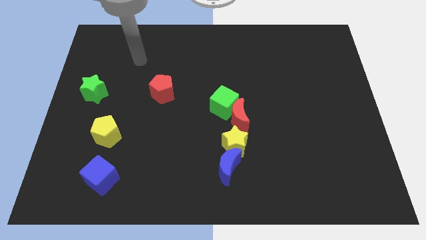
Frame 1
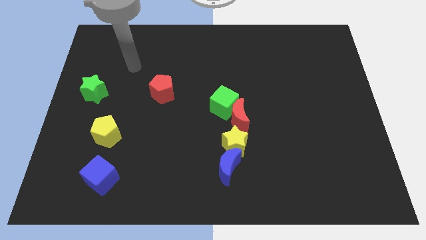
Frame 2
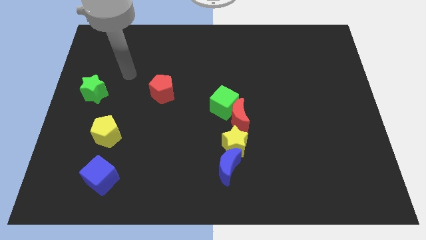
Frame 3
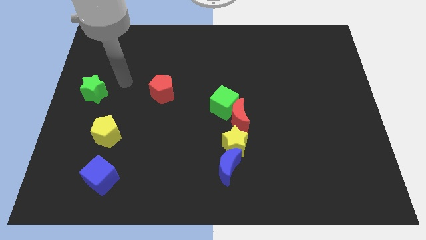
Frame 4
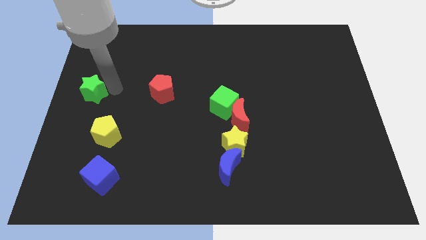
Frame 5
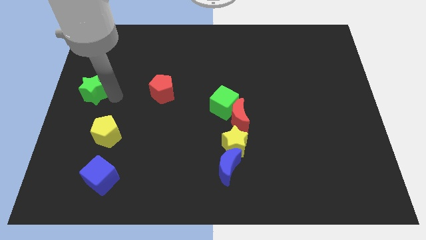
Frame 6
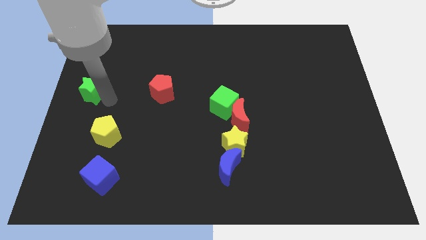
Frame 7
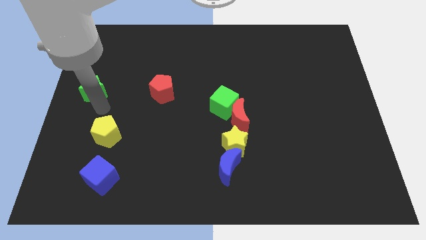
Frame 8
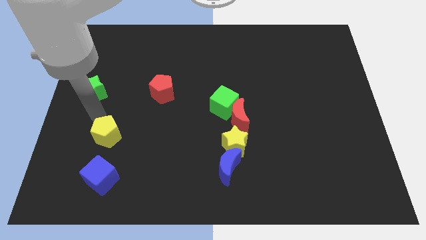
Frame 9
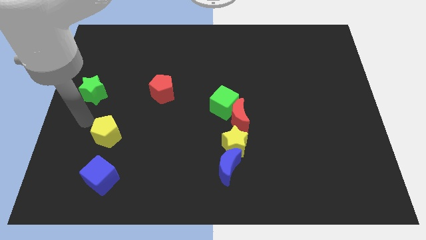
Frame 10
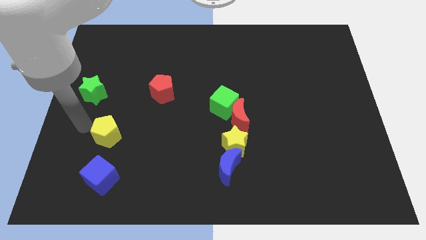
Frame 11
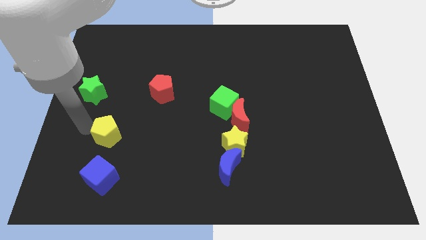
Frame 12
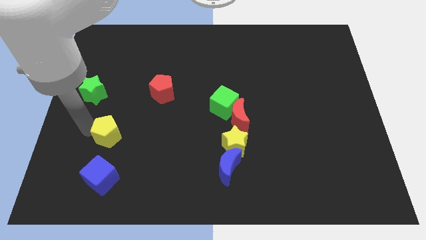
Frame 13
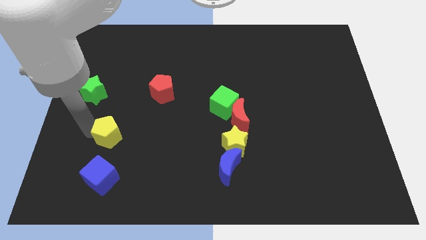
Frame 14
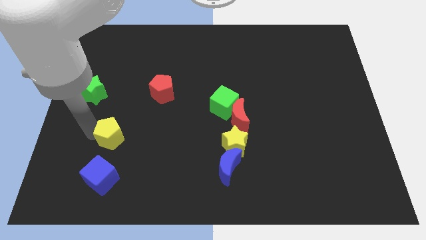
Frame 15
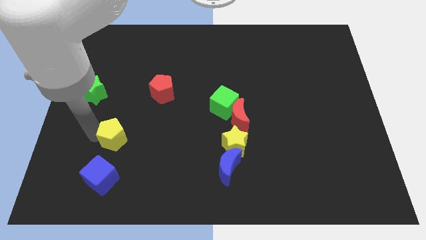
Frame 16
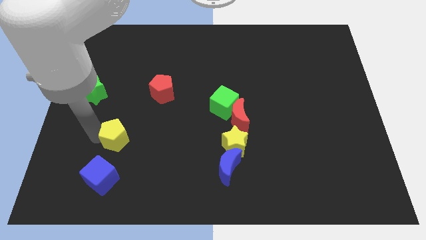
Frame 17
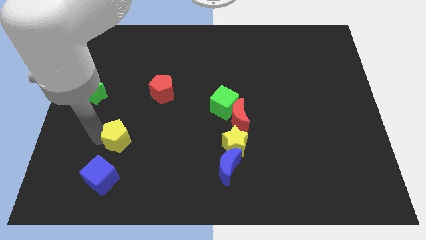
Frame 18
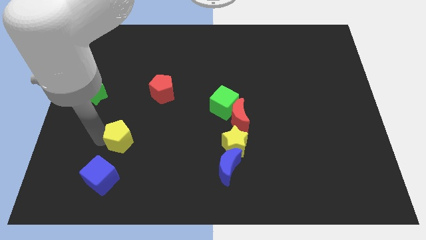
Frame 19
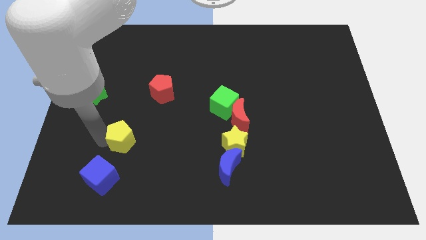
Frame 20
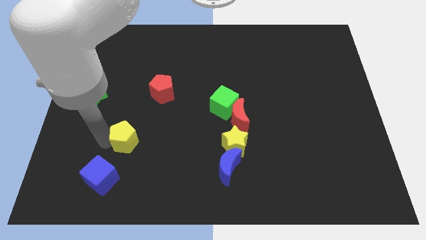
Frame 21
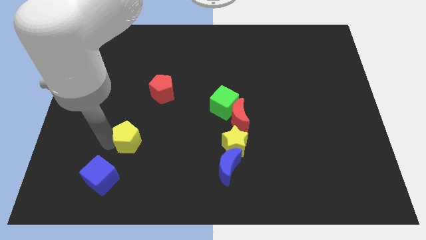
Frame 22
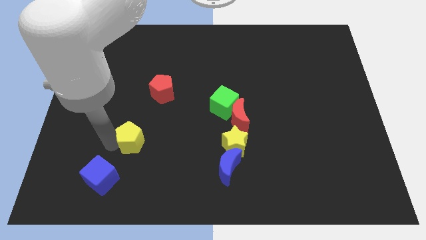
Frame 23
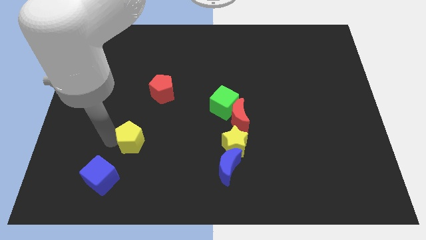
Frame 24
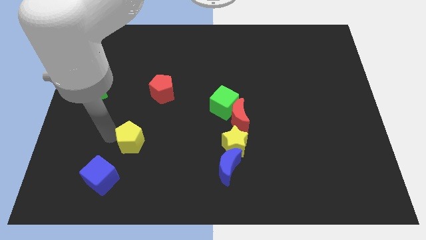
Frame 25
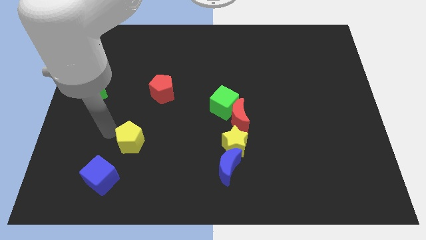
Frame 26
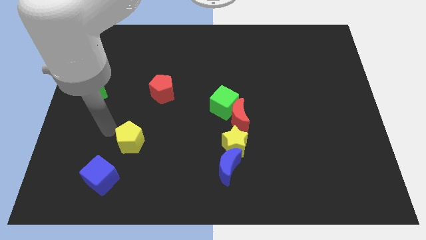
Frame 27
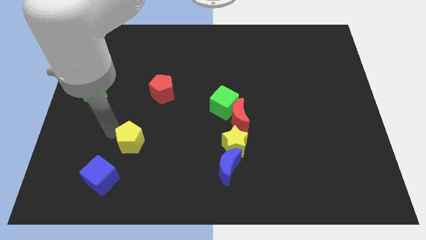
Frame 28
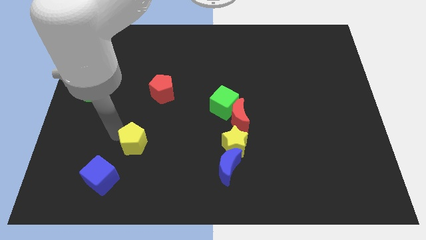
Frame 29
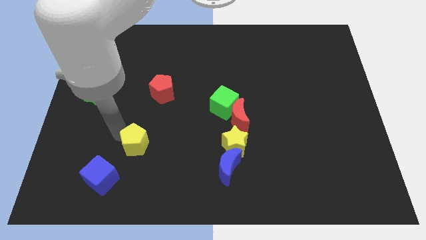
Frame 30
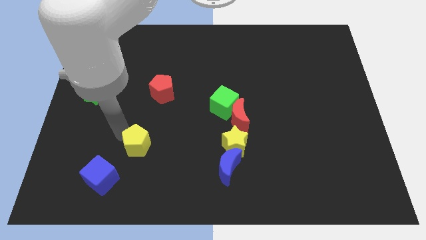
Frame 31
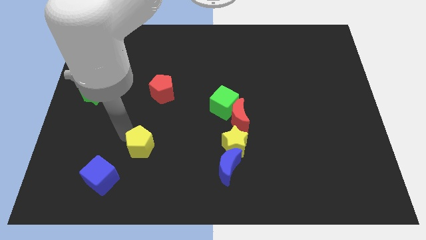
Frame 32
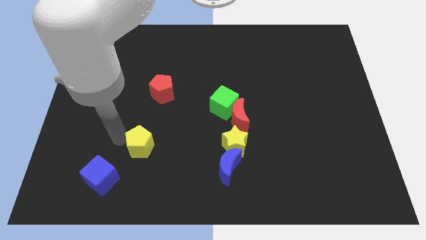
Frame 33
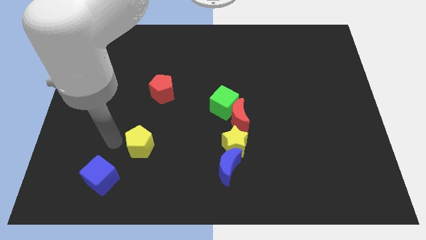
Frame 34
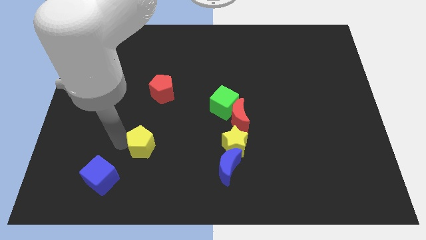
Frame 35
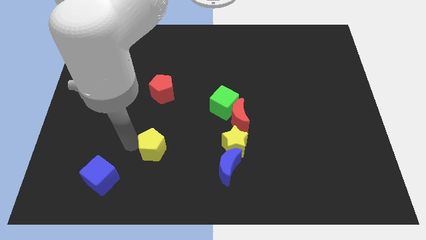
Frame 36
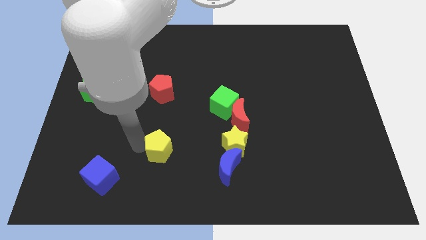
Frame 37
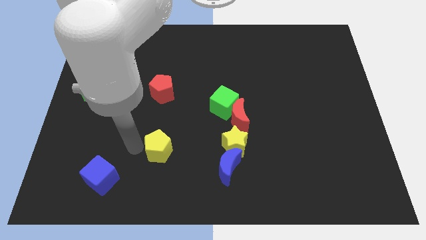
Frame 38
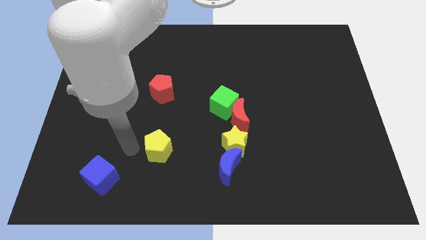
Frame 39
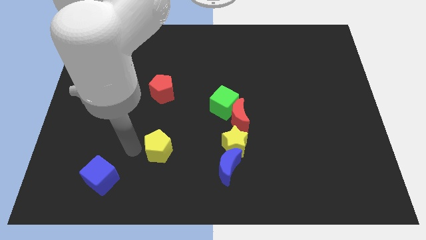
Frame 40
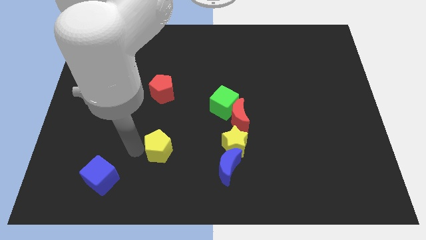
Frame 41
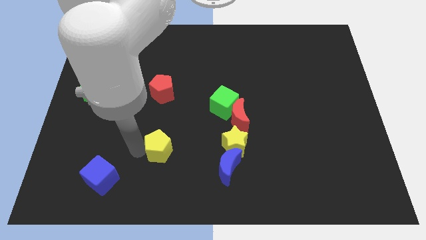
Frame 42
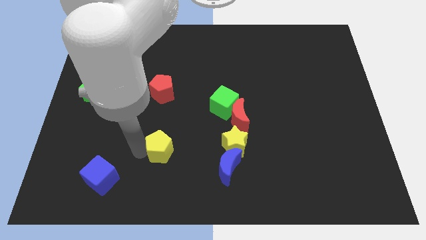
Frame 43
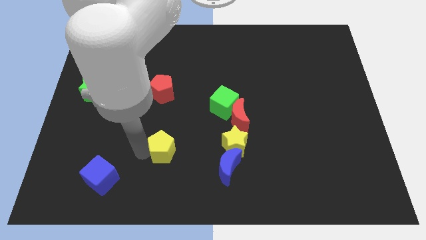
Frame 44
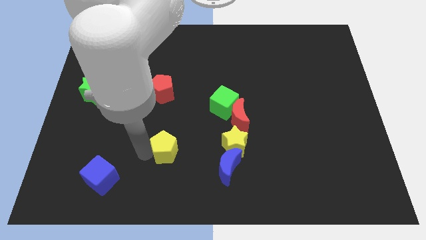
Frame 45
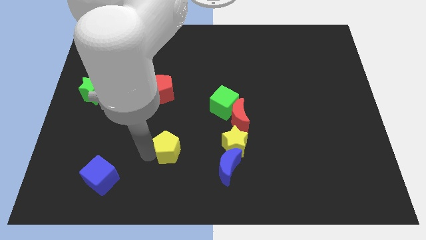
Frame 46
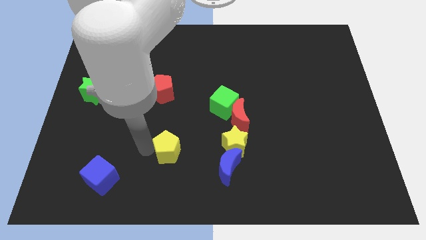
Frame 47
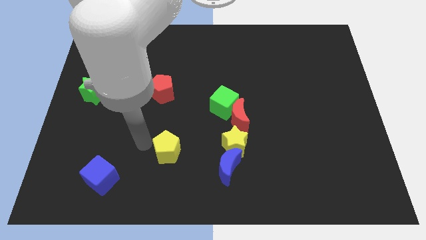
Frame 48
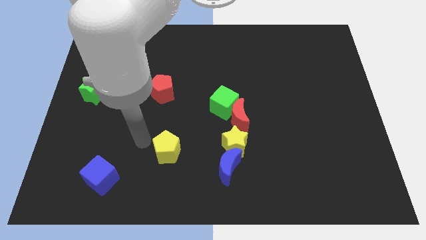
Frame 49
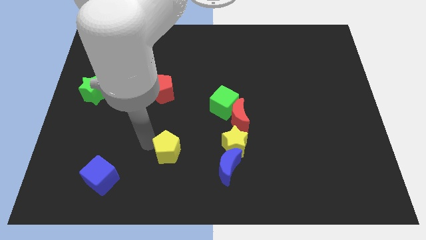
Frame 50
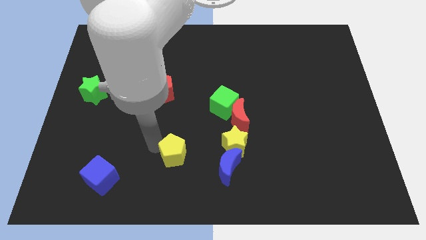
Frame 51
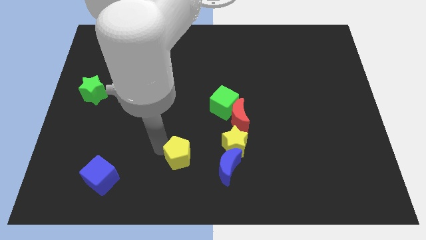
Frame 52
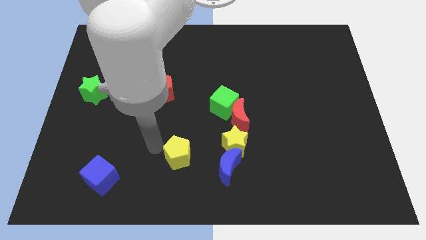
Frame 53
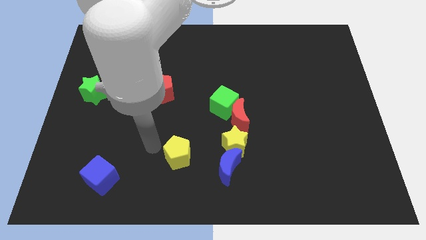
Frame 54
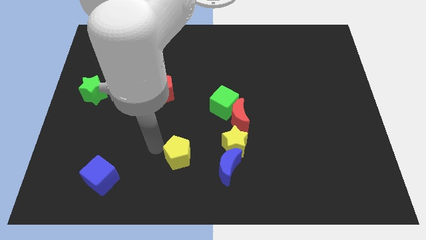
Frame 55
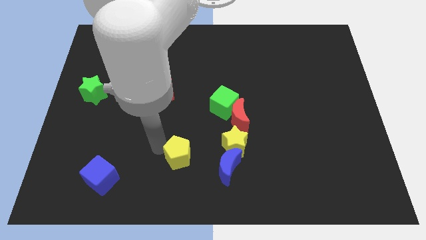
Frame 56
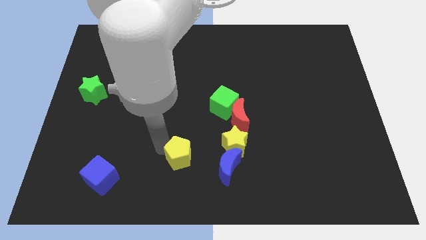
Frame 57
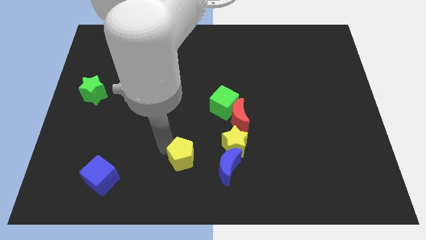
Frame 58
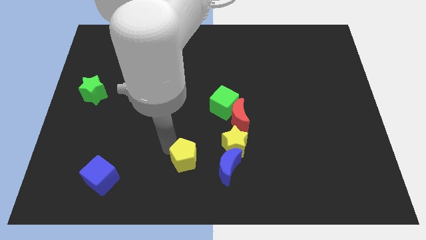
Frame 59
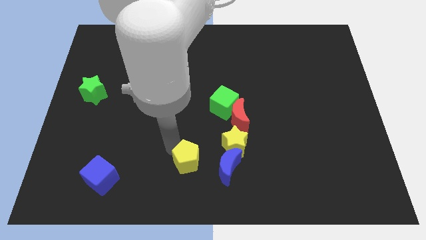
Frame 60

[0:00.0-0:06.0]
put the yellow pentagon to the bottom left of the yellow star

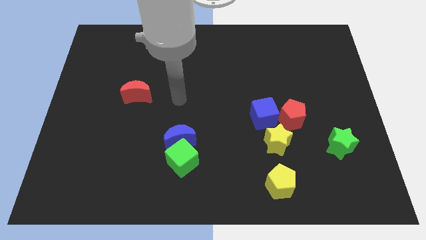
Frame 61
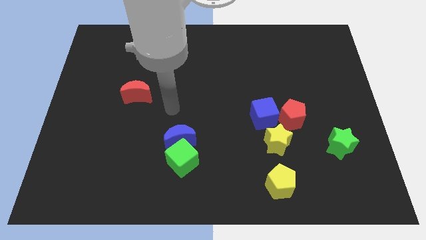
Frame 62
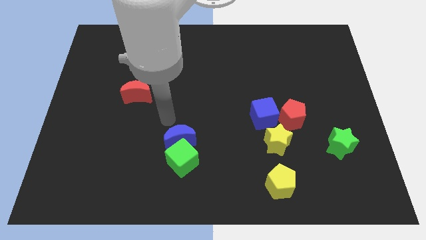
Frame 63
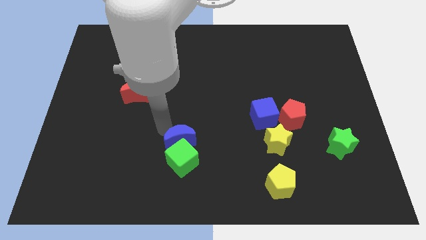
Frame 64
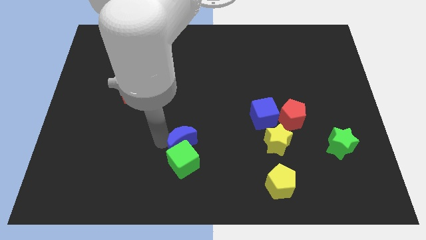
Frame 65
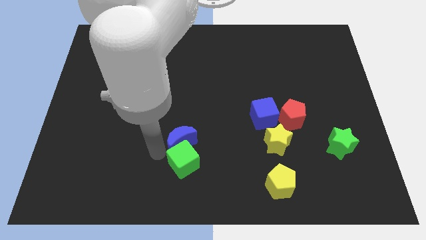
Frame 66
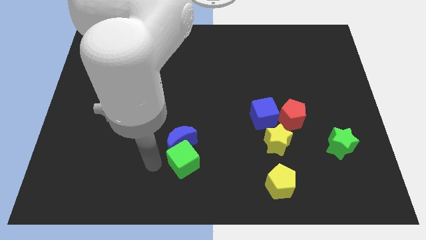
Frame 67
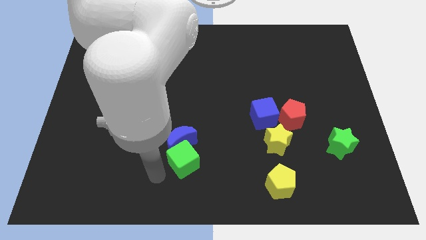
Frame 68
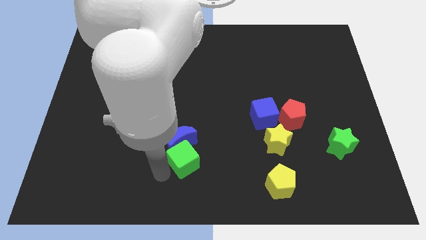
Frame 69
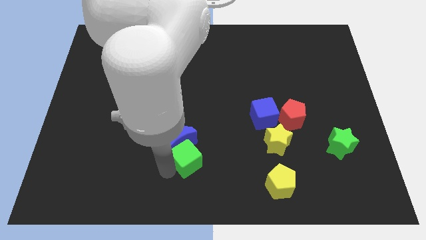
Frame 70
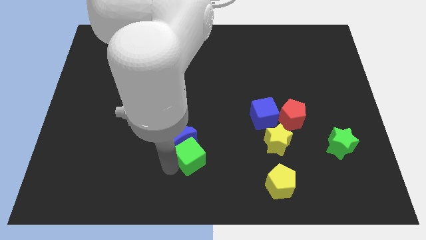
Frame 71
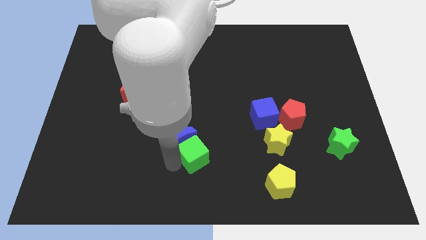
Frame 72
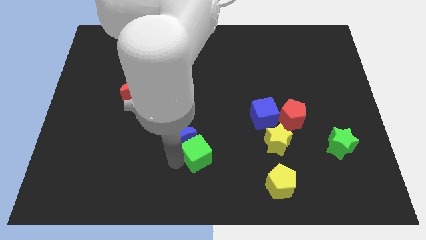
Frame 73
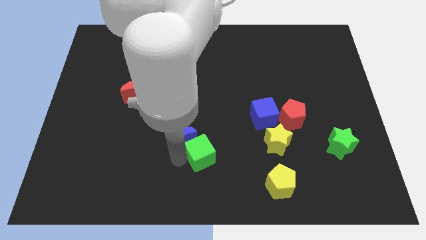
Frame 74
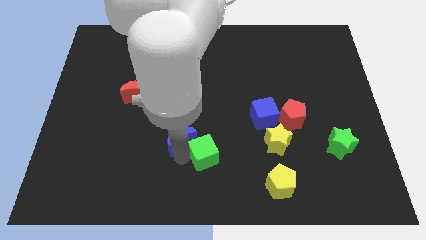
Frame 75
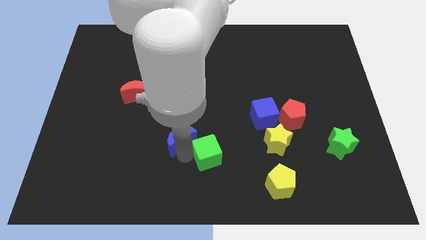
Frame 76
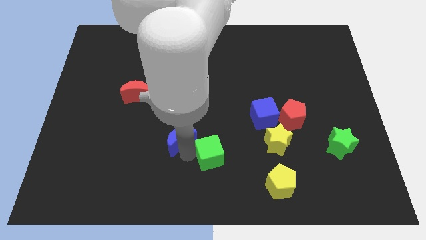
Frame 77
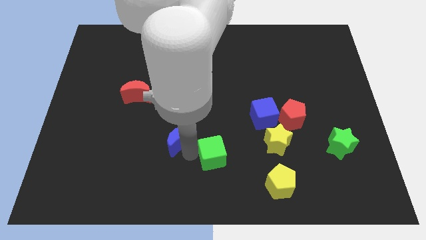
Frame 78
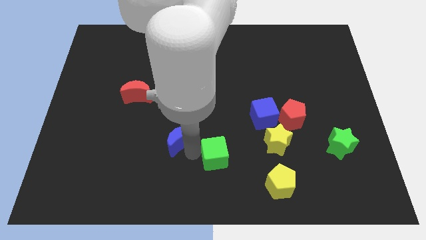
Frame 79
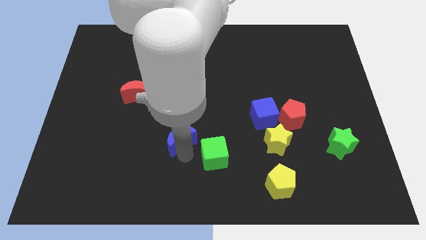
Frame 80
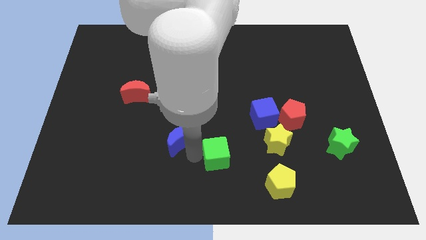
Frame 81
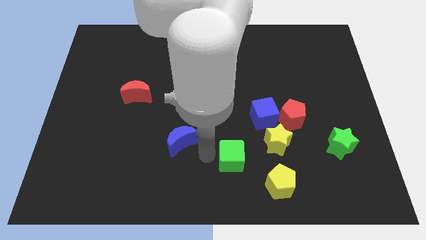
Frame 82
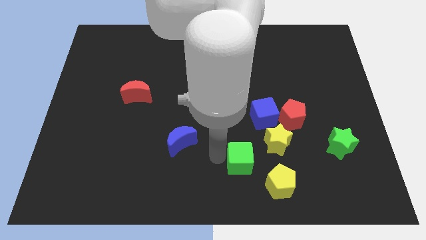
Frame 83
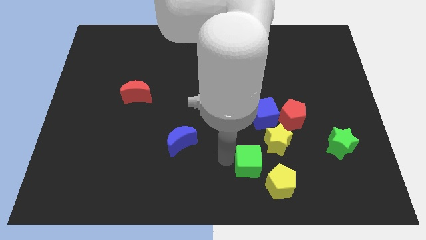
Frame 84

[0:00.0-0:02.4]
put the green cube below the blue cube
